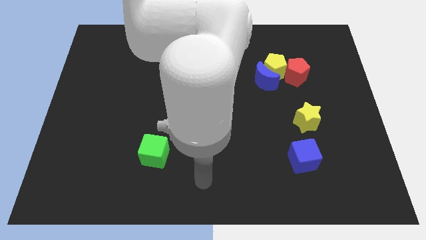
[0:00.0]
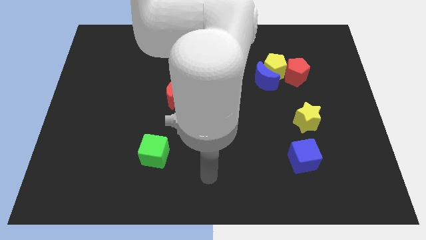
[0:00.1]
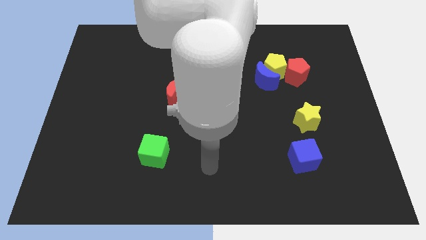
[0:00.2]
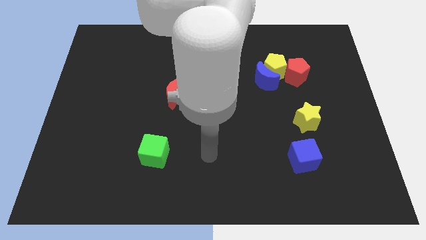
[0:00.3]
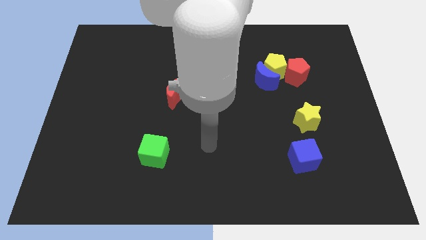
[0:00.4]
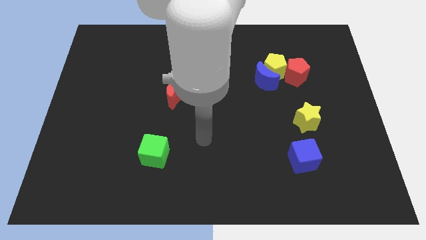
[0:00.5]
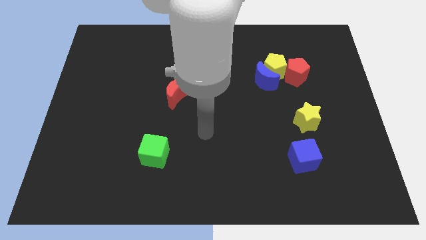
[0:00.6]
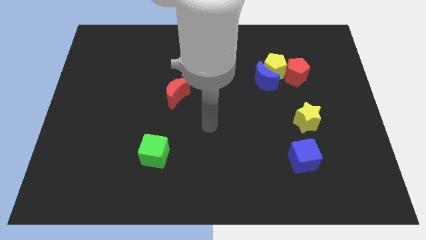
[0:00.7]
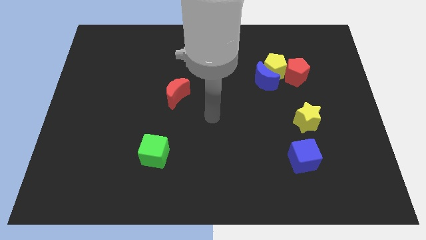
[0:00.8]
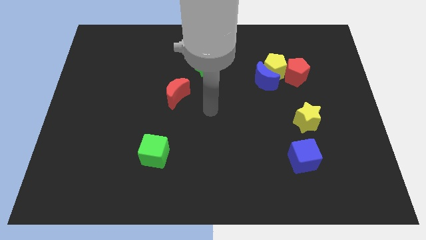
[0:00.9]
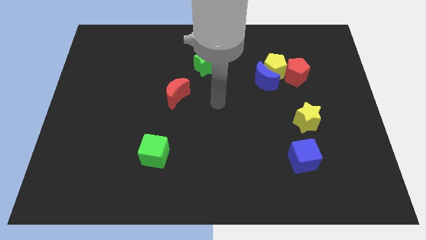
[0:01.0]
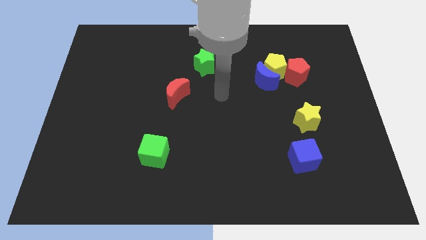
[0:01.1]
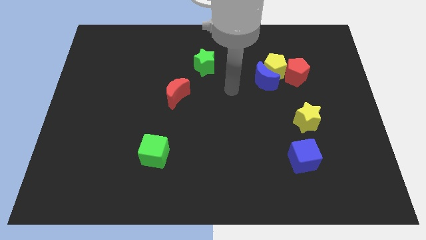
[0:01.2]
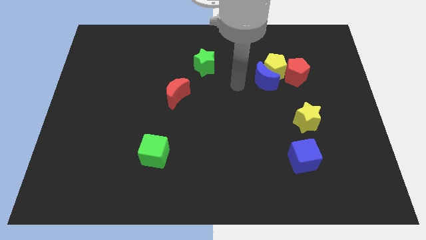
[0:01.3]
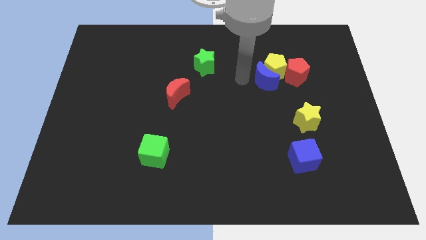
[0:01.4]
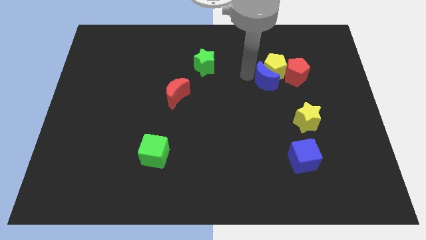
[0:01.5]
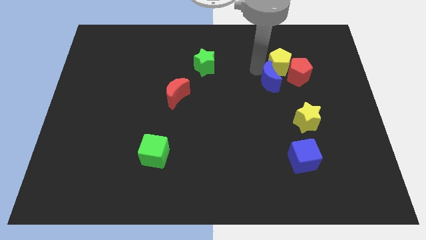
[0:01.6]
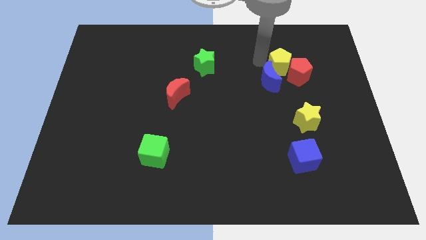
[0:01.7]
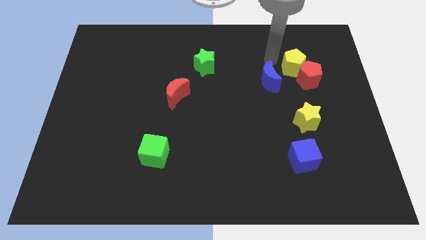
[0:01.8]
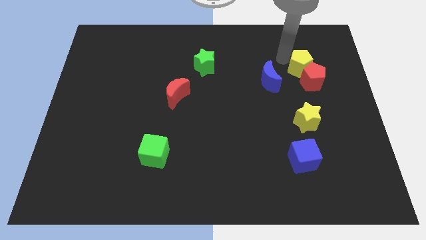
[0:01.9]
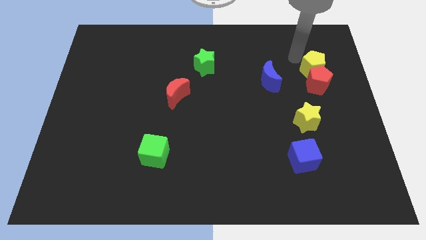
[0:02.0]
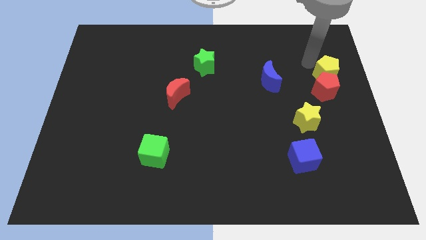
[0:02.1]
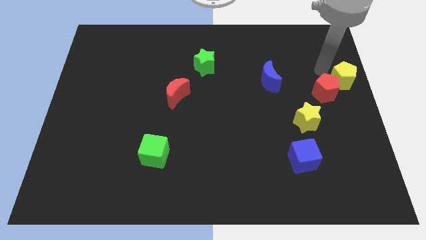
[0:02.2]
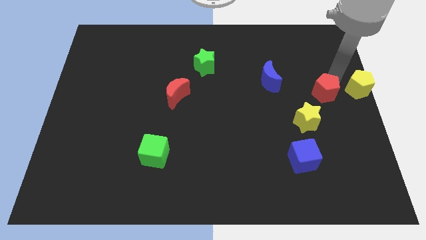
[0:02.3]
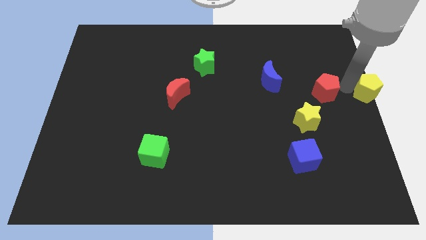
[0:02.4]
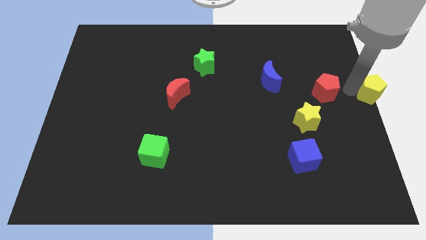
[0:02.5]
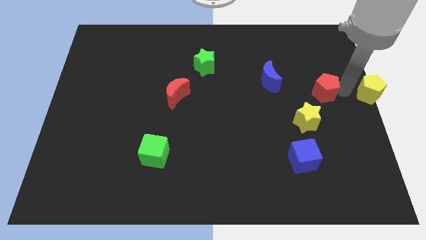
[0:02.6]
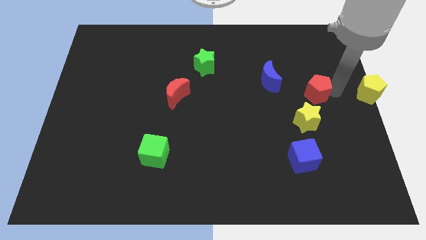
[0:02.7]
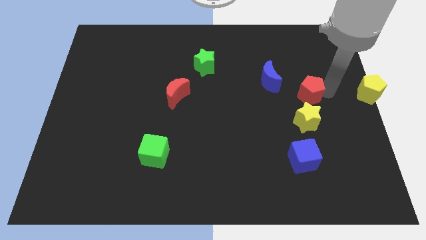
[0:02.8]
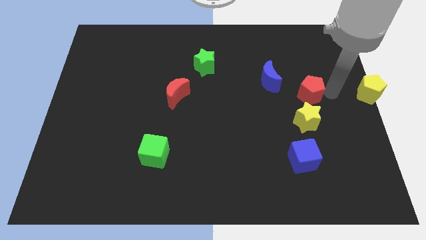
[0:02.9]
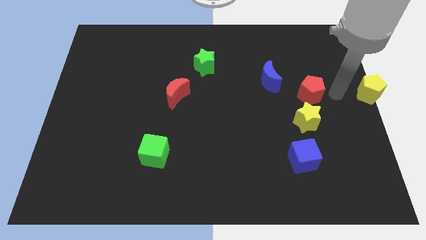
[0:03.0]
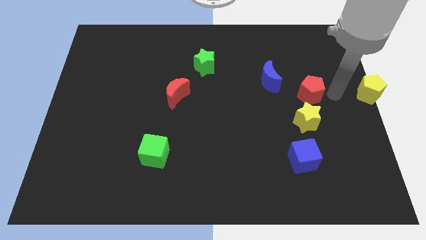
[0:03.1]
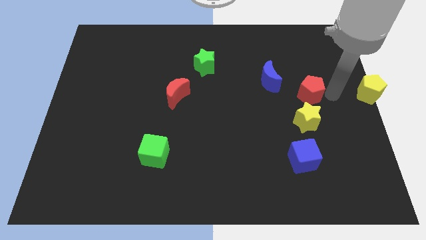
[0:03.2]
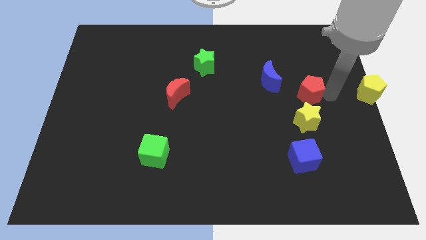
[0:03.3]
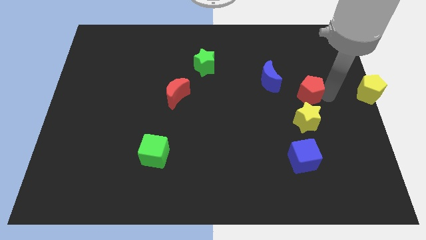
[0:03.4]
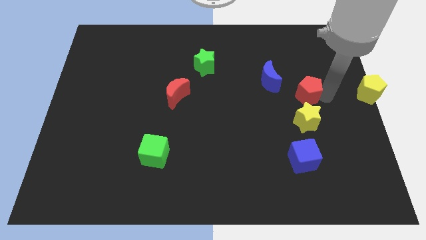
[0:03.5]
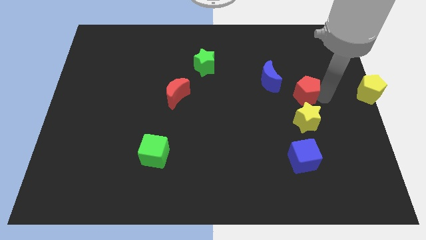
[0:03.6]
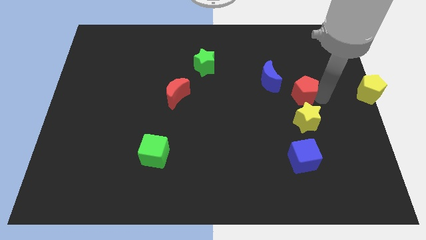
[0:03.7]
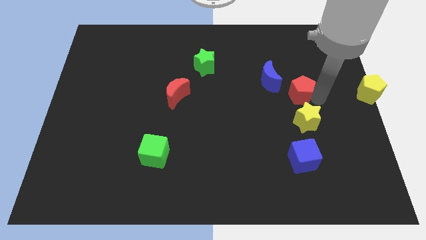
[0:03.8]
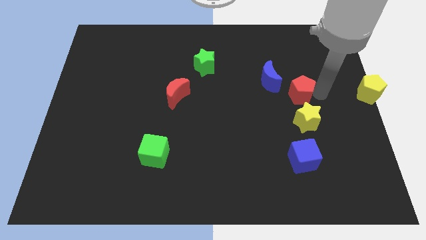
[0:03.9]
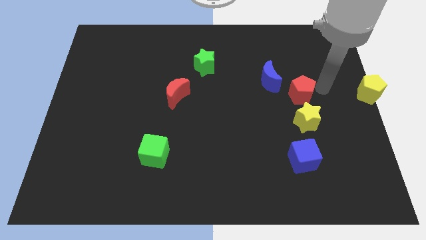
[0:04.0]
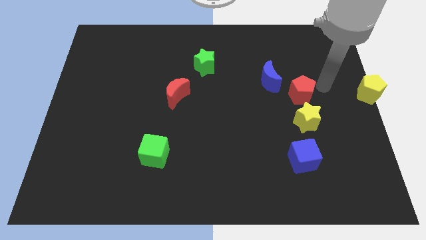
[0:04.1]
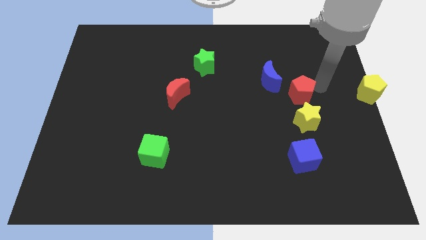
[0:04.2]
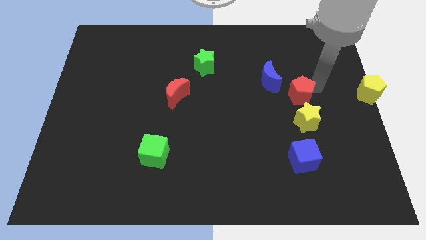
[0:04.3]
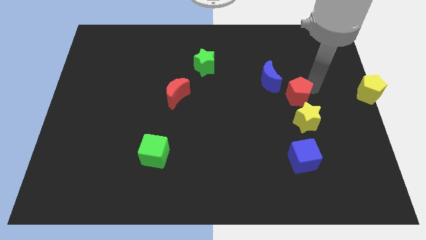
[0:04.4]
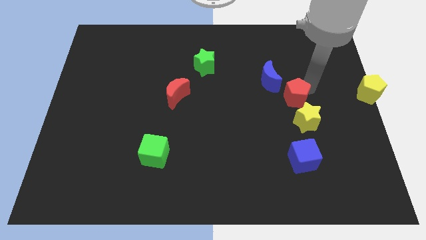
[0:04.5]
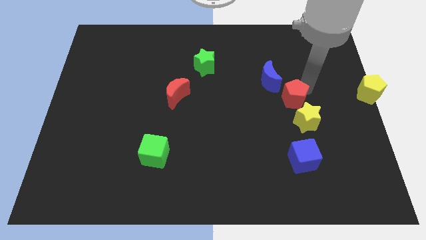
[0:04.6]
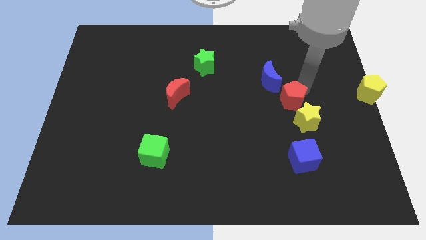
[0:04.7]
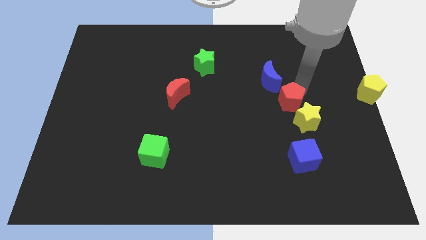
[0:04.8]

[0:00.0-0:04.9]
move the red pentagon a little bit downwards and to the left diagonally

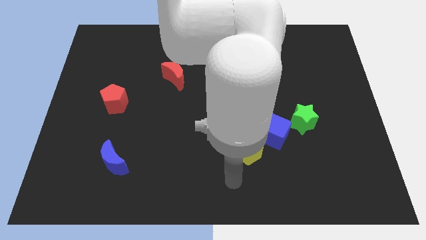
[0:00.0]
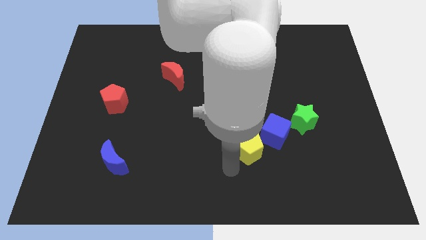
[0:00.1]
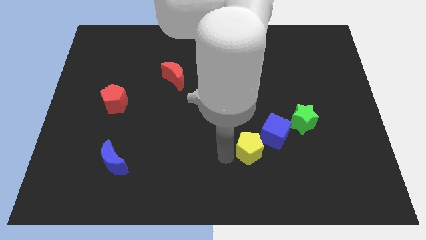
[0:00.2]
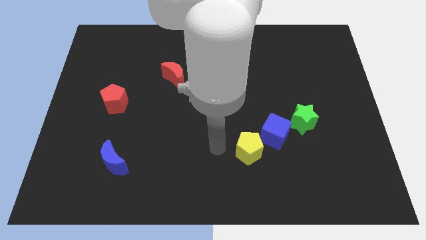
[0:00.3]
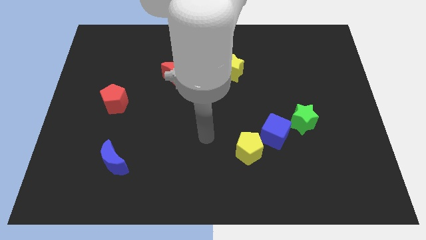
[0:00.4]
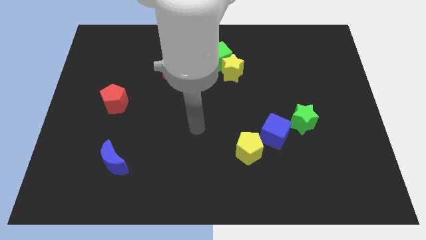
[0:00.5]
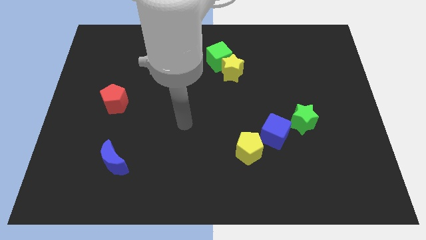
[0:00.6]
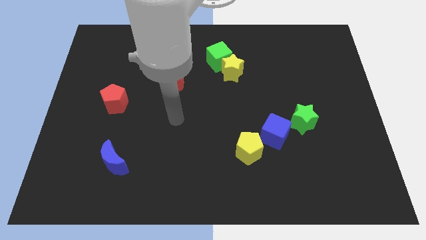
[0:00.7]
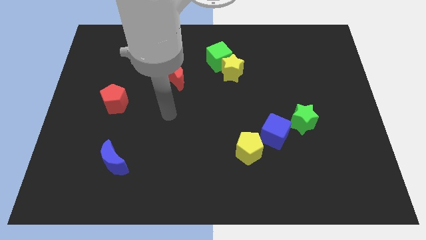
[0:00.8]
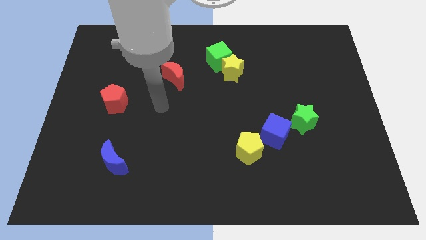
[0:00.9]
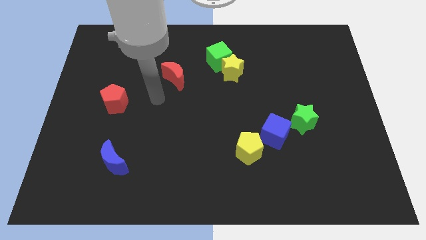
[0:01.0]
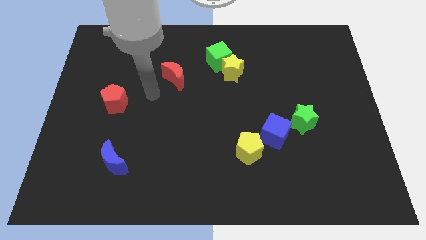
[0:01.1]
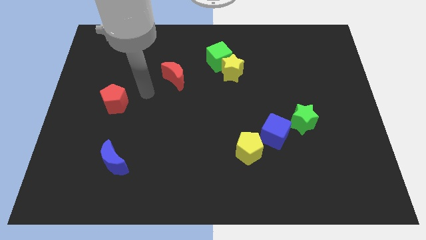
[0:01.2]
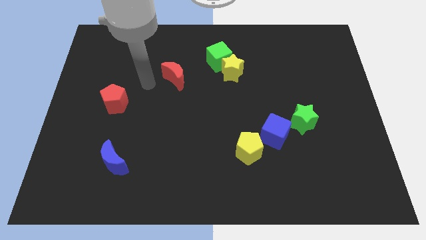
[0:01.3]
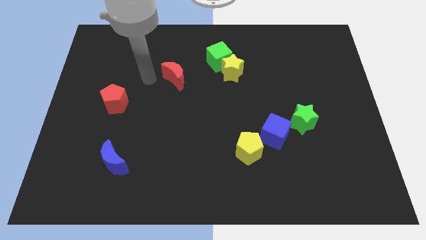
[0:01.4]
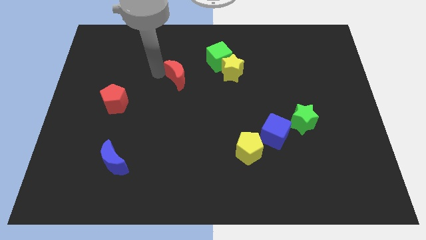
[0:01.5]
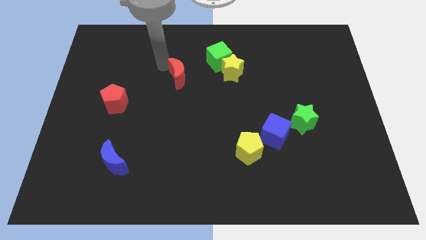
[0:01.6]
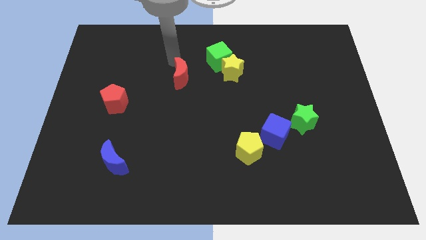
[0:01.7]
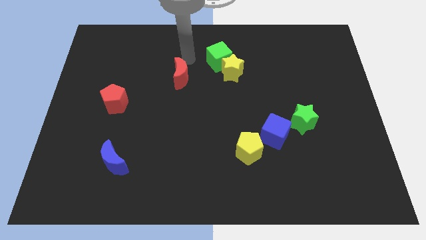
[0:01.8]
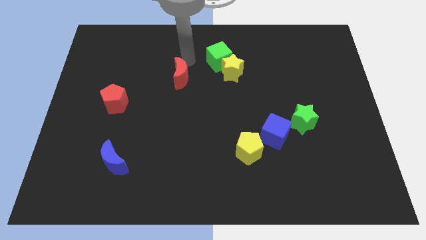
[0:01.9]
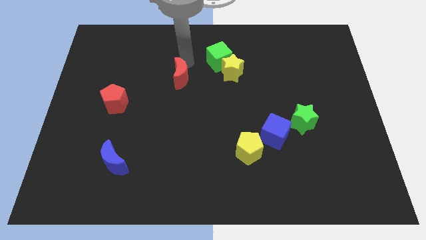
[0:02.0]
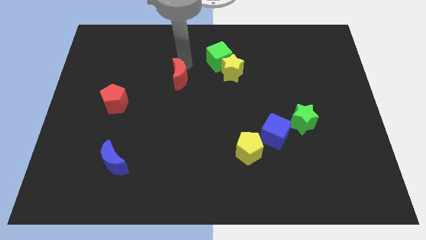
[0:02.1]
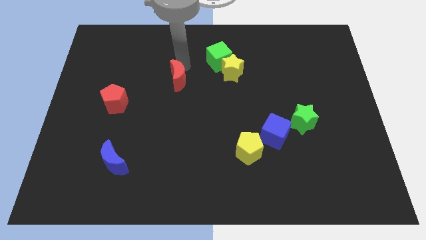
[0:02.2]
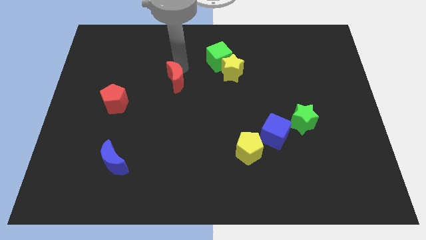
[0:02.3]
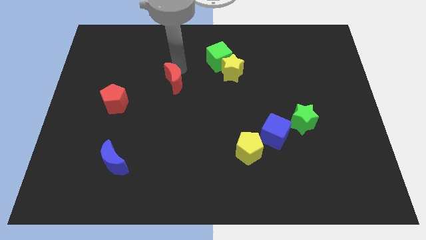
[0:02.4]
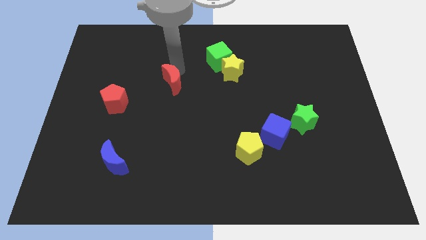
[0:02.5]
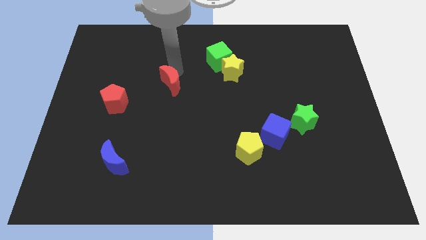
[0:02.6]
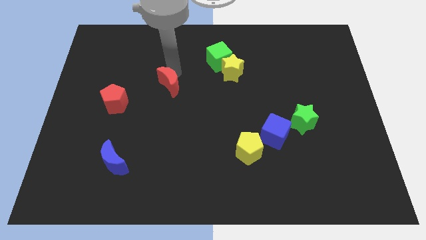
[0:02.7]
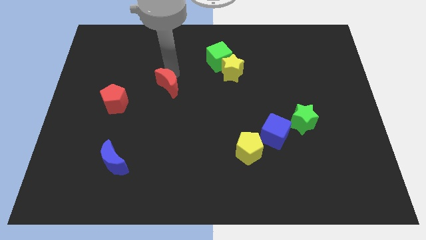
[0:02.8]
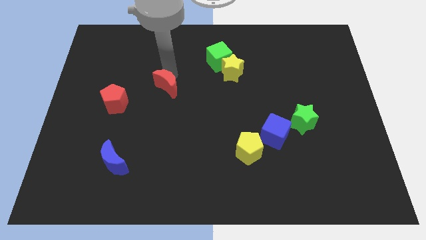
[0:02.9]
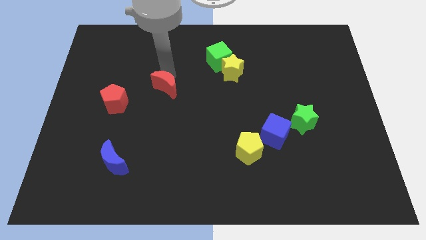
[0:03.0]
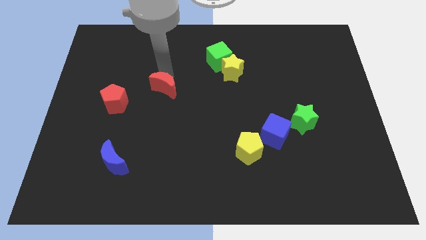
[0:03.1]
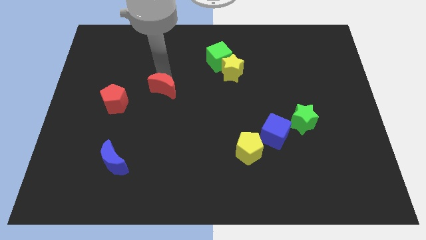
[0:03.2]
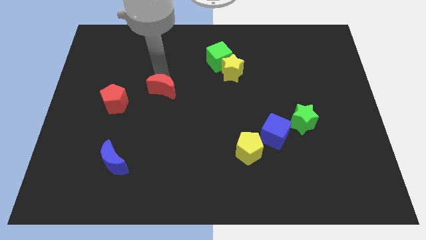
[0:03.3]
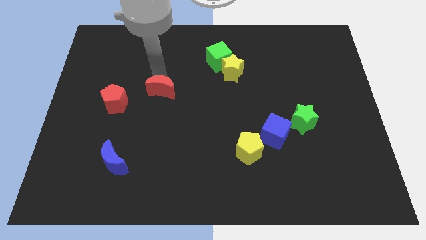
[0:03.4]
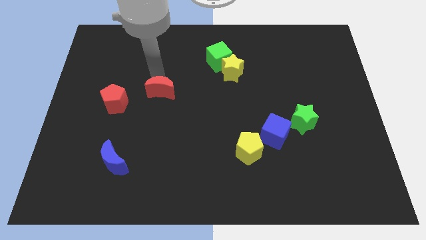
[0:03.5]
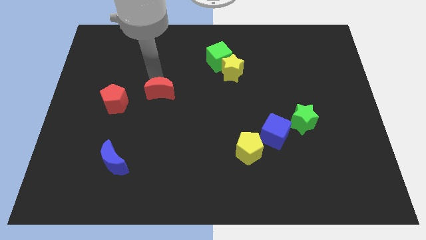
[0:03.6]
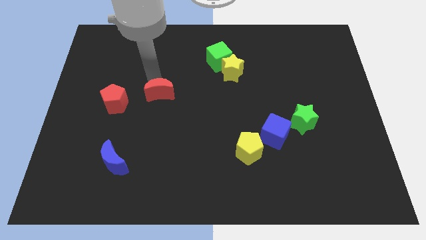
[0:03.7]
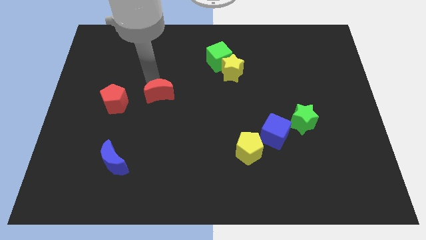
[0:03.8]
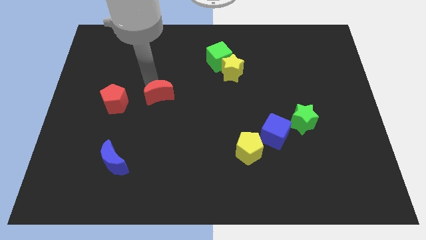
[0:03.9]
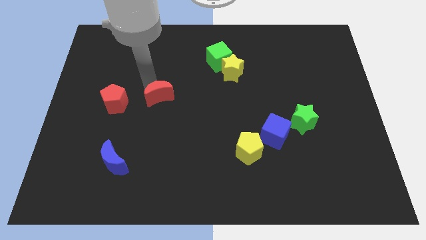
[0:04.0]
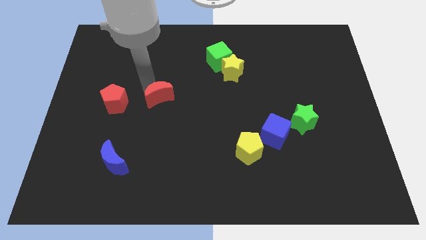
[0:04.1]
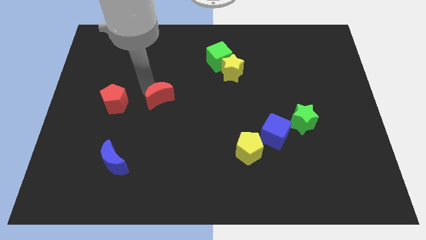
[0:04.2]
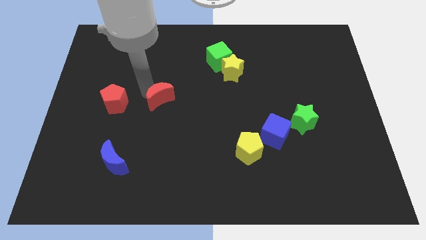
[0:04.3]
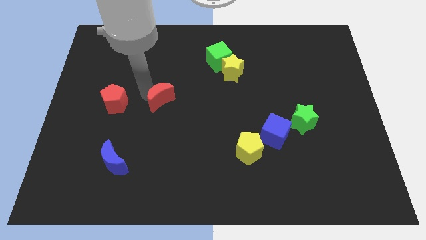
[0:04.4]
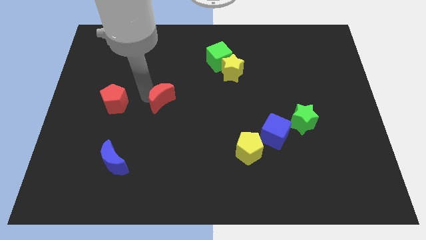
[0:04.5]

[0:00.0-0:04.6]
push the red moon a little bit downwards
